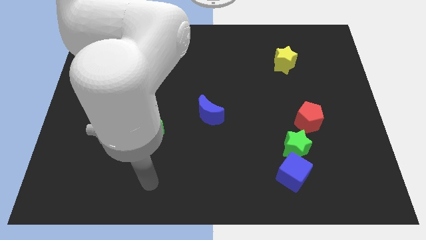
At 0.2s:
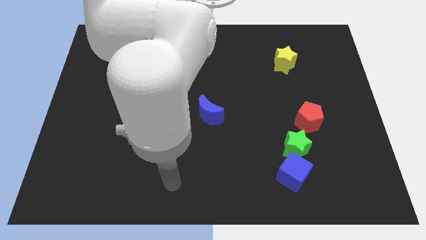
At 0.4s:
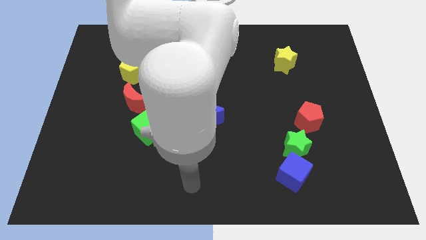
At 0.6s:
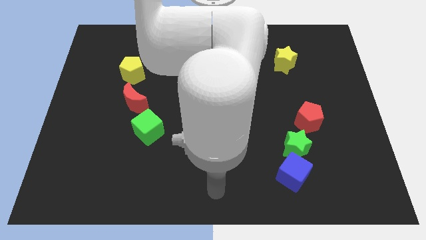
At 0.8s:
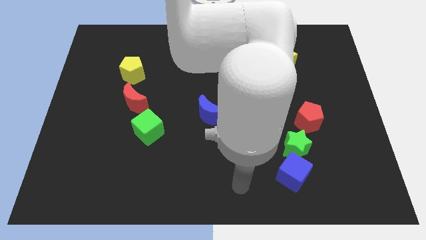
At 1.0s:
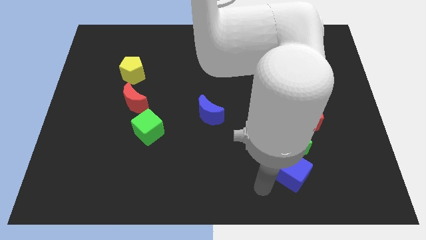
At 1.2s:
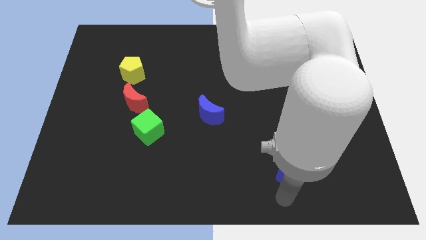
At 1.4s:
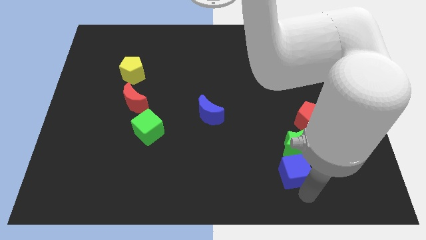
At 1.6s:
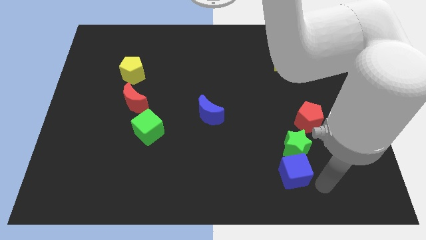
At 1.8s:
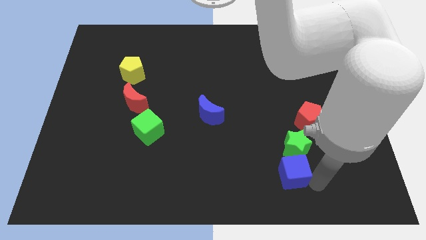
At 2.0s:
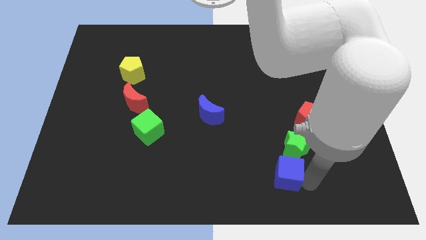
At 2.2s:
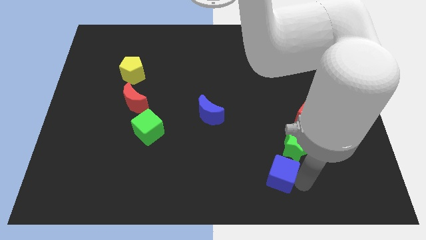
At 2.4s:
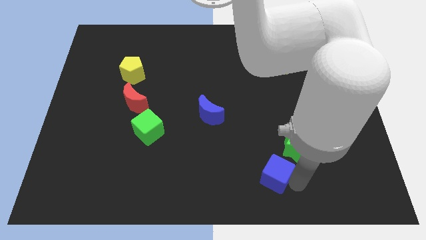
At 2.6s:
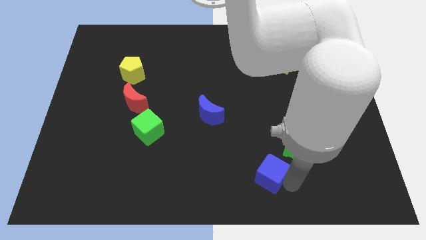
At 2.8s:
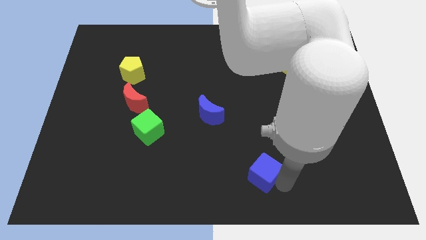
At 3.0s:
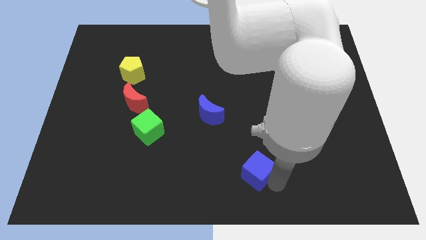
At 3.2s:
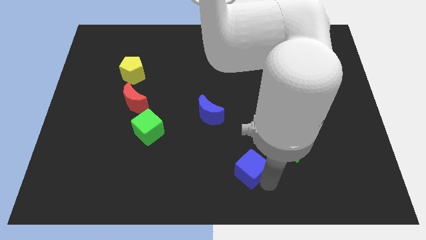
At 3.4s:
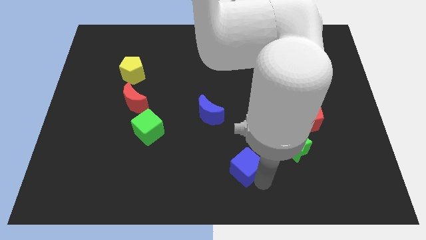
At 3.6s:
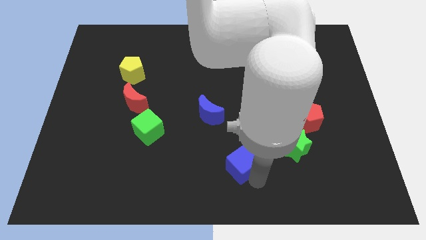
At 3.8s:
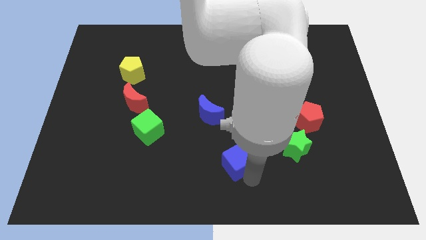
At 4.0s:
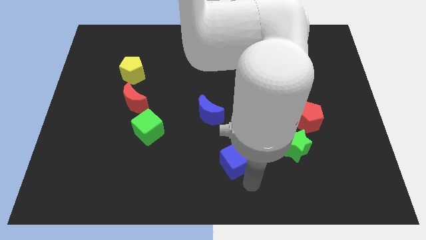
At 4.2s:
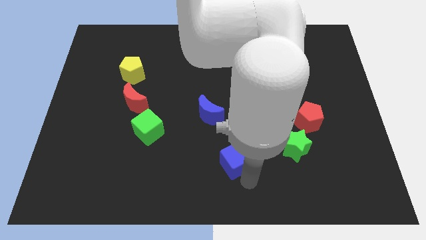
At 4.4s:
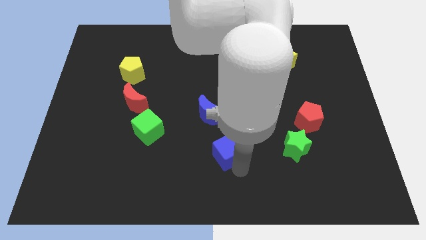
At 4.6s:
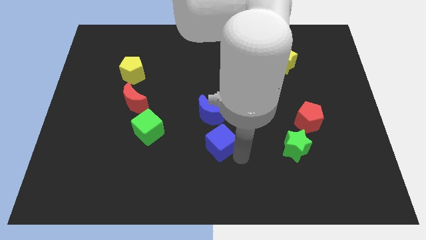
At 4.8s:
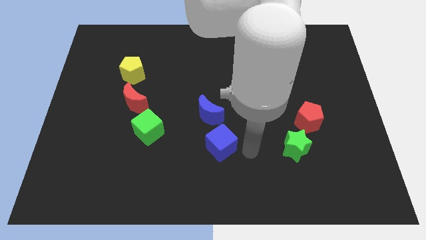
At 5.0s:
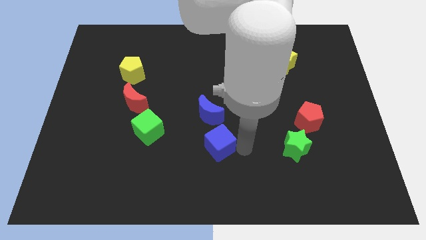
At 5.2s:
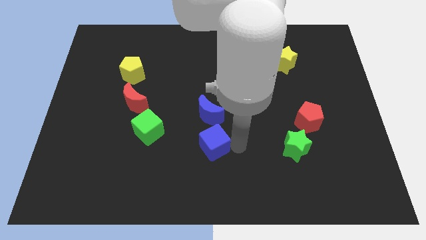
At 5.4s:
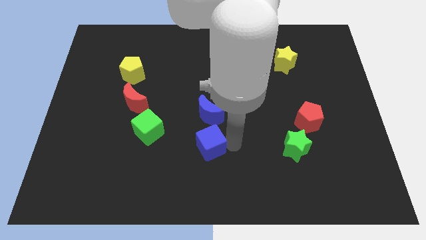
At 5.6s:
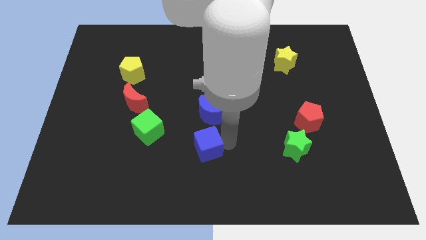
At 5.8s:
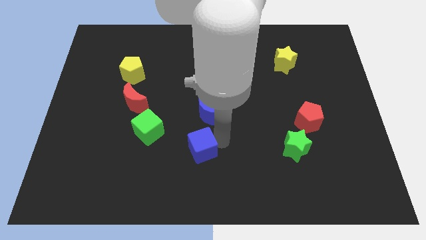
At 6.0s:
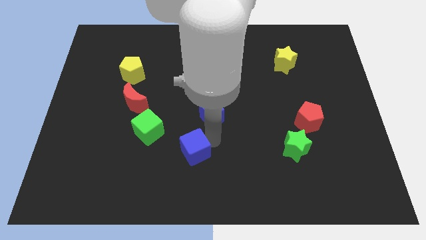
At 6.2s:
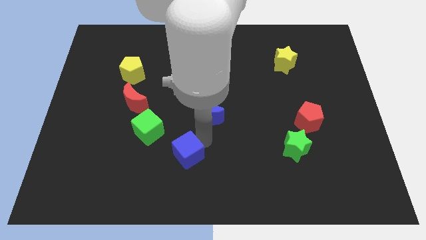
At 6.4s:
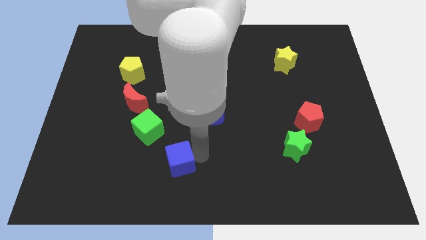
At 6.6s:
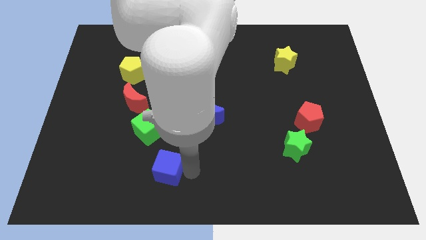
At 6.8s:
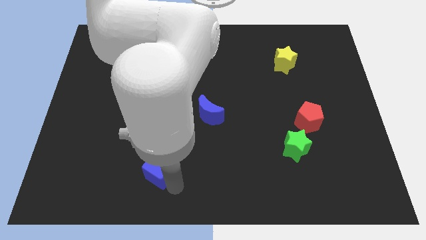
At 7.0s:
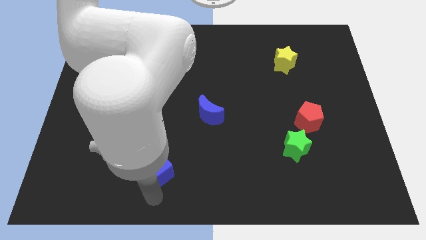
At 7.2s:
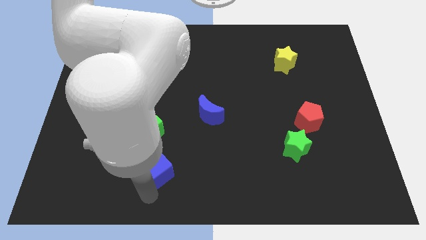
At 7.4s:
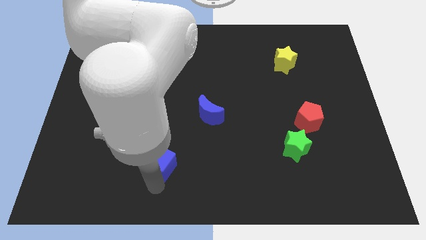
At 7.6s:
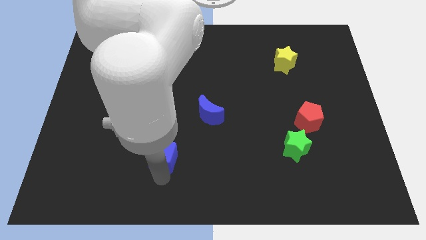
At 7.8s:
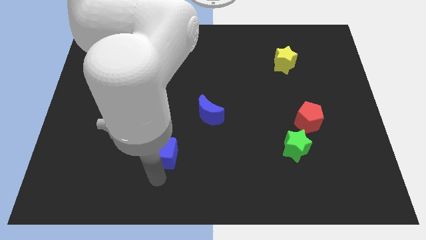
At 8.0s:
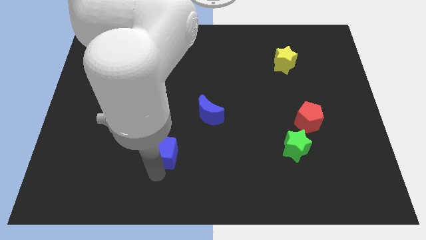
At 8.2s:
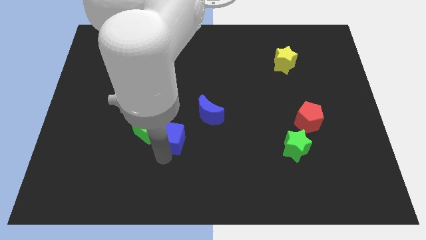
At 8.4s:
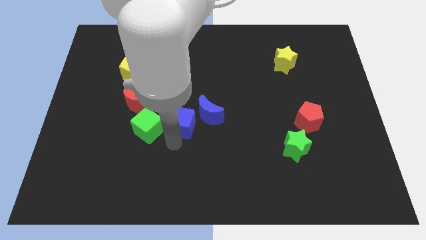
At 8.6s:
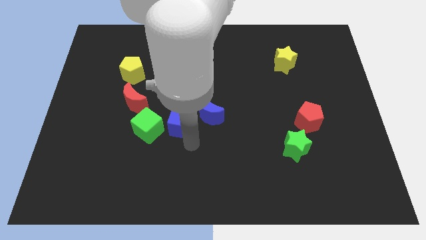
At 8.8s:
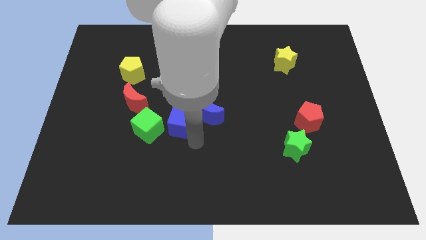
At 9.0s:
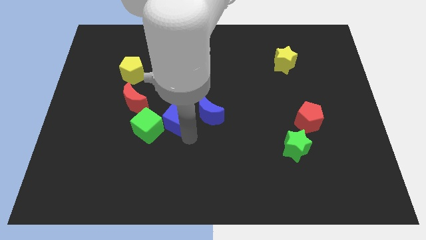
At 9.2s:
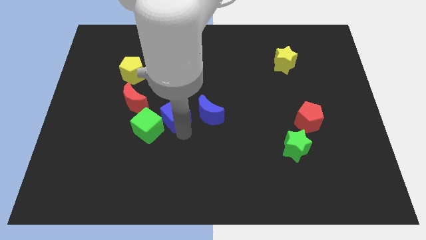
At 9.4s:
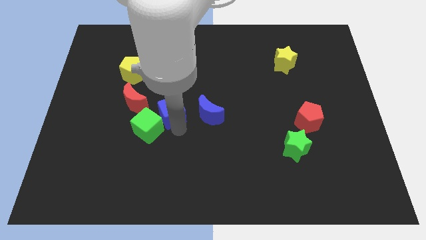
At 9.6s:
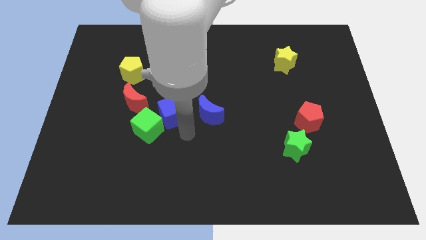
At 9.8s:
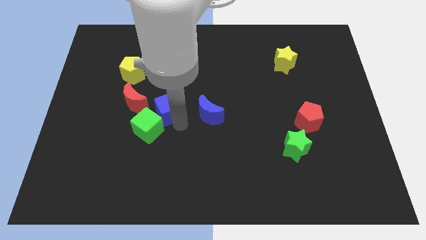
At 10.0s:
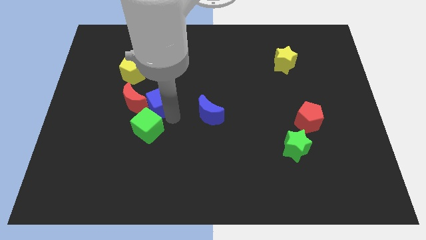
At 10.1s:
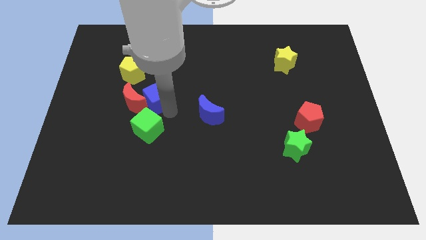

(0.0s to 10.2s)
move the blue cube close to the red moon

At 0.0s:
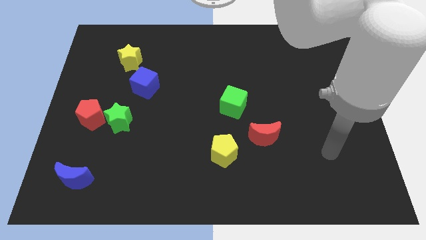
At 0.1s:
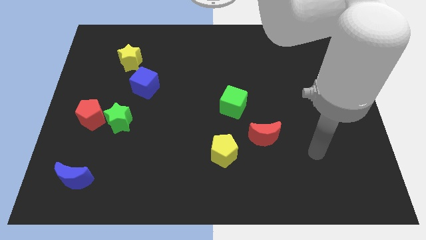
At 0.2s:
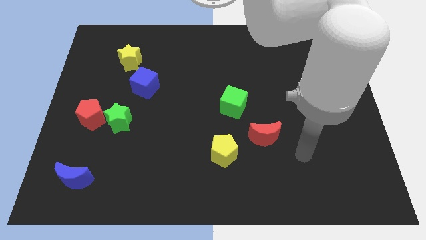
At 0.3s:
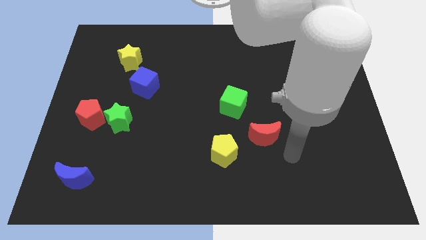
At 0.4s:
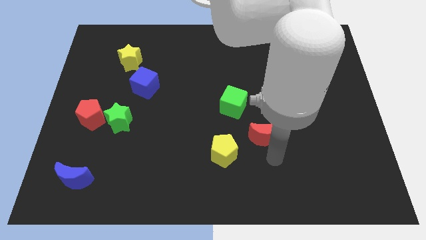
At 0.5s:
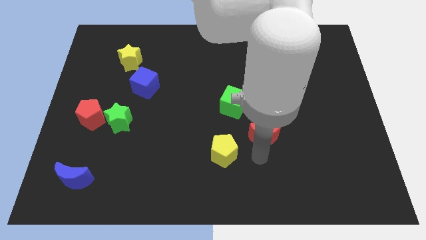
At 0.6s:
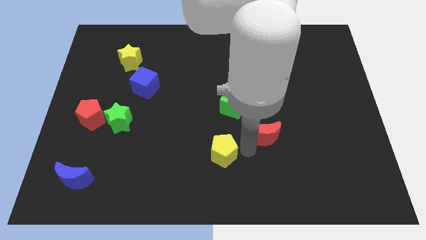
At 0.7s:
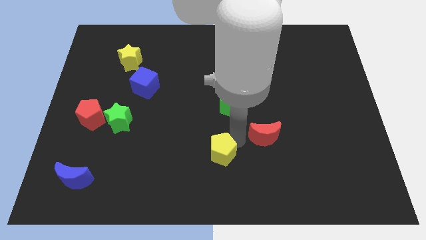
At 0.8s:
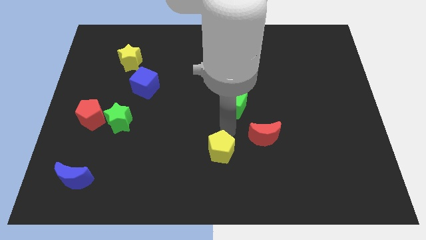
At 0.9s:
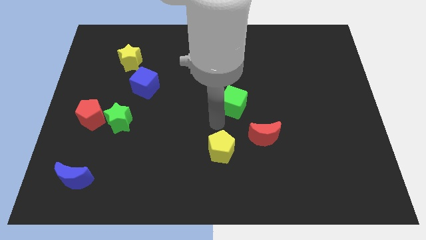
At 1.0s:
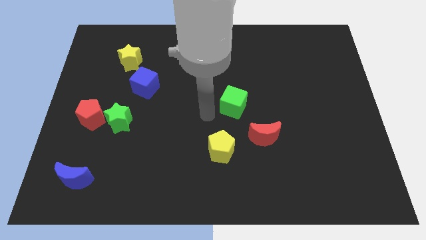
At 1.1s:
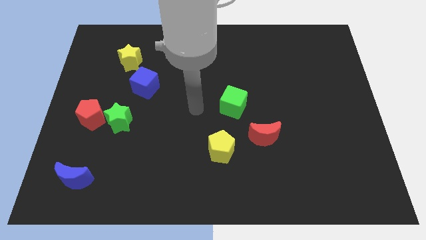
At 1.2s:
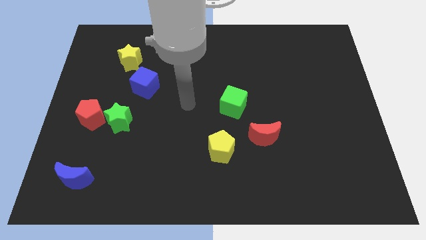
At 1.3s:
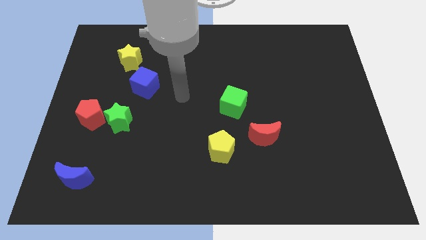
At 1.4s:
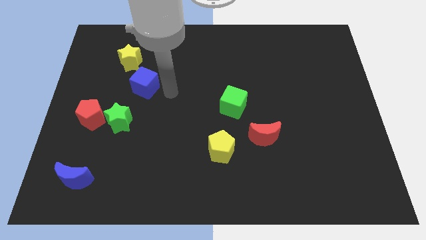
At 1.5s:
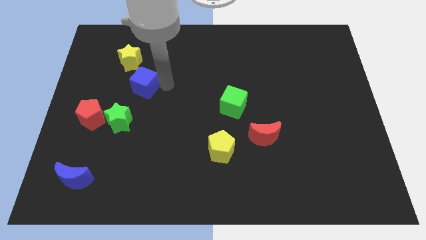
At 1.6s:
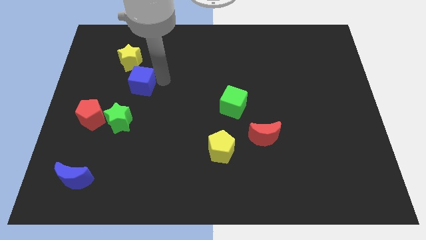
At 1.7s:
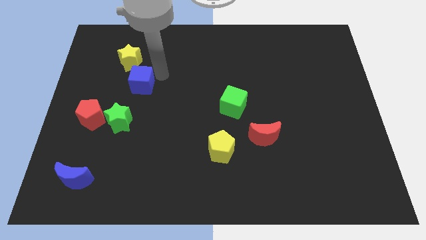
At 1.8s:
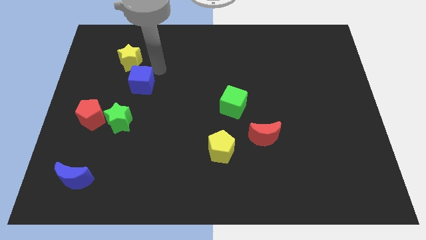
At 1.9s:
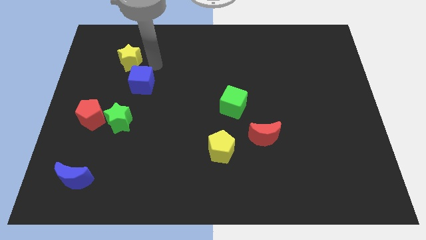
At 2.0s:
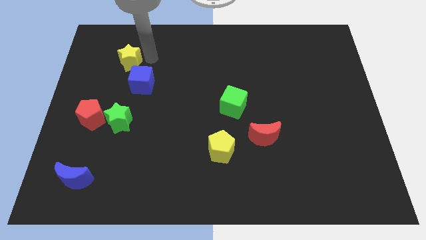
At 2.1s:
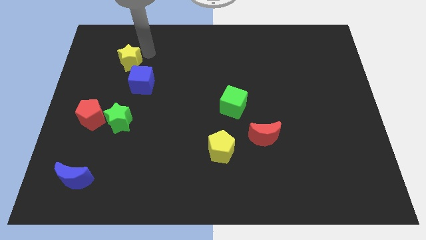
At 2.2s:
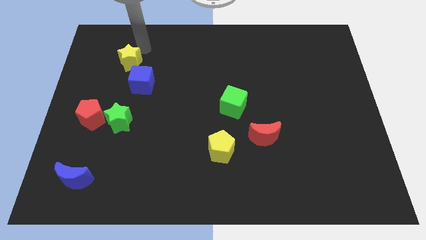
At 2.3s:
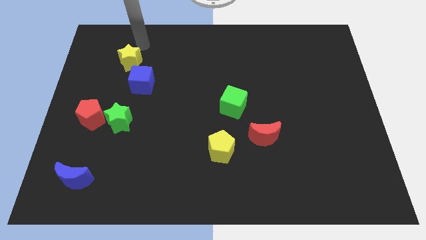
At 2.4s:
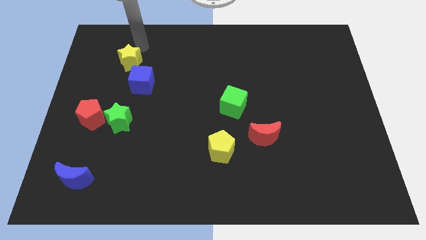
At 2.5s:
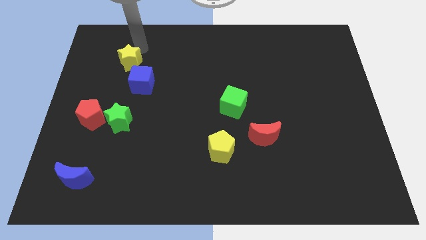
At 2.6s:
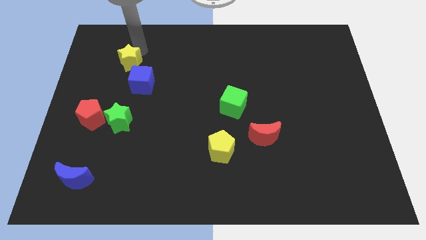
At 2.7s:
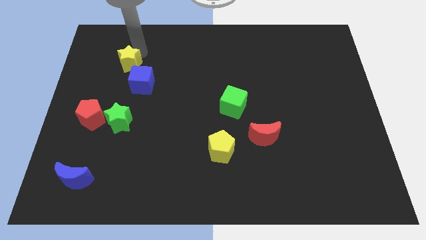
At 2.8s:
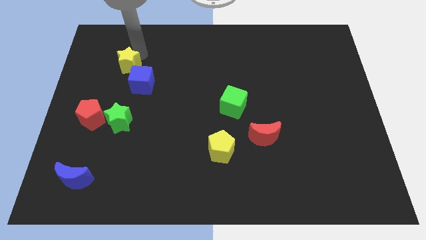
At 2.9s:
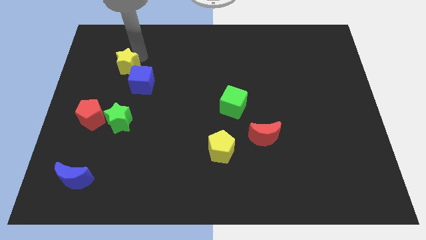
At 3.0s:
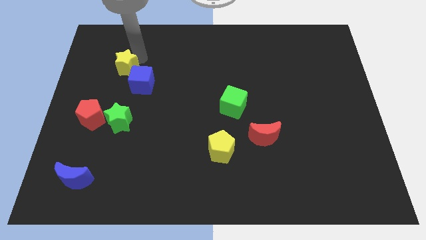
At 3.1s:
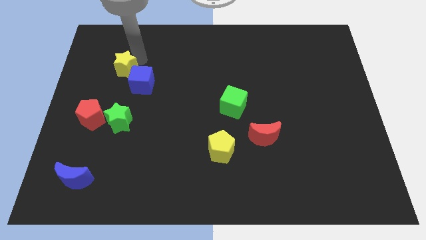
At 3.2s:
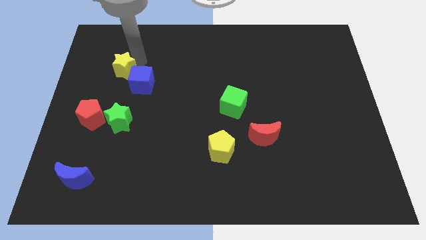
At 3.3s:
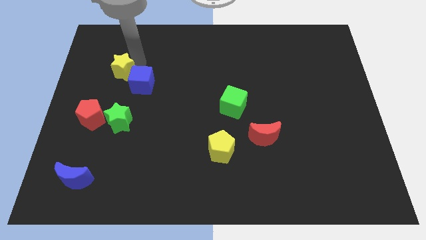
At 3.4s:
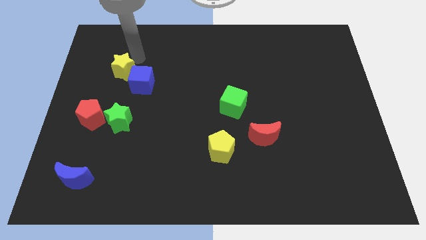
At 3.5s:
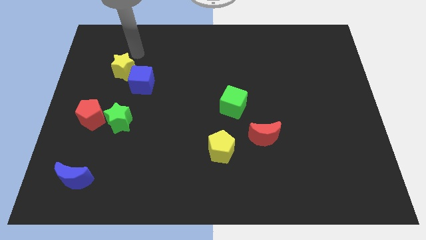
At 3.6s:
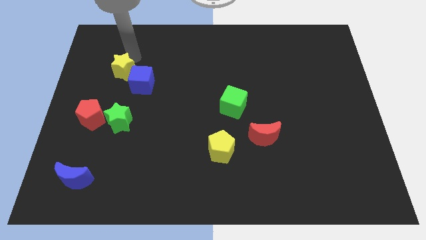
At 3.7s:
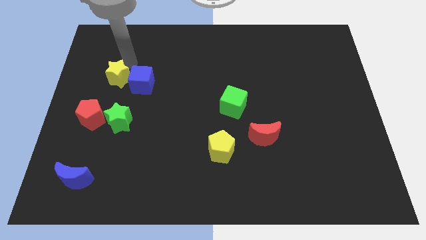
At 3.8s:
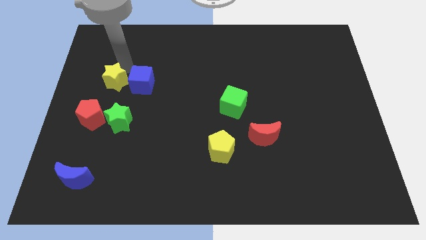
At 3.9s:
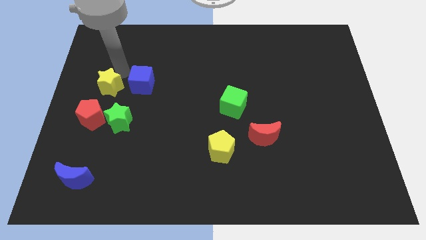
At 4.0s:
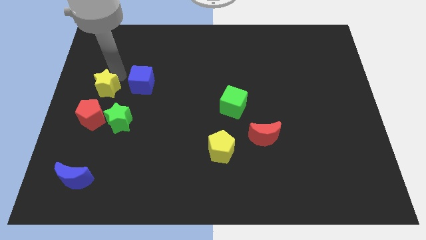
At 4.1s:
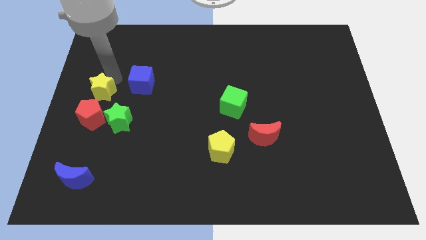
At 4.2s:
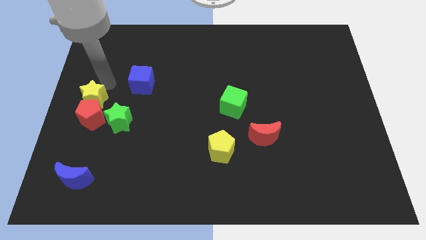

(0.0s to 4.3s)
move the yellow star to the red pentagon
